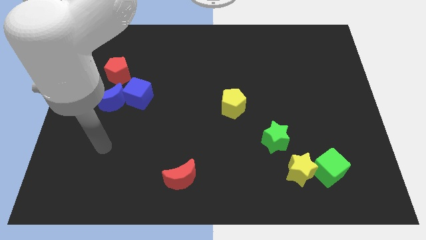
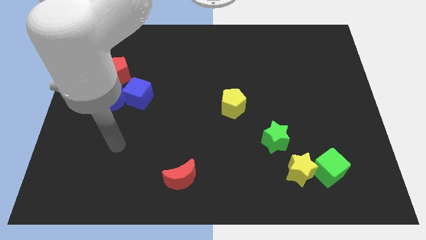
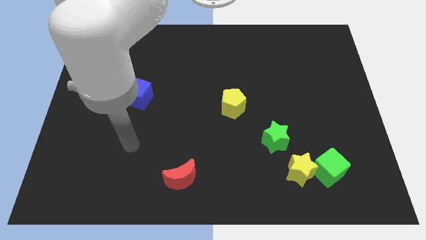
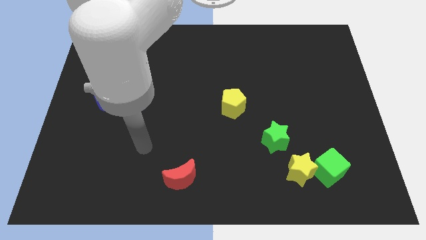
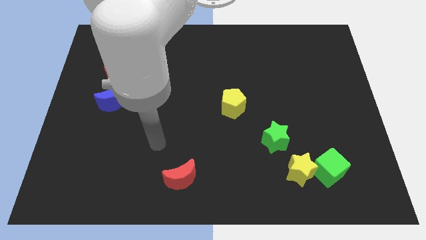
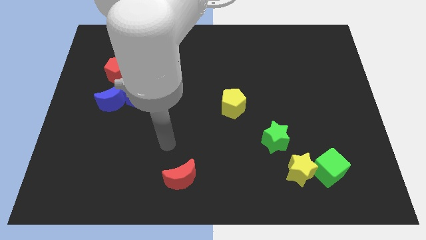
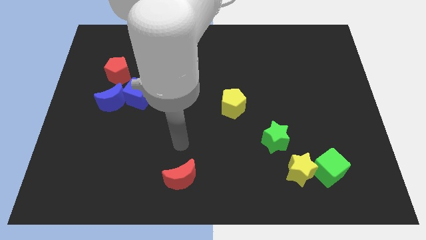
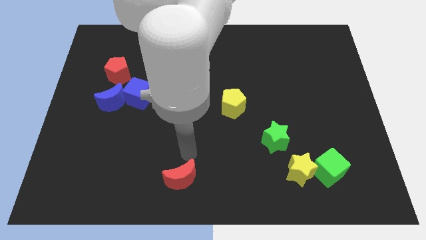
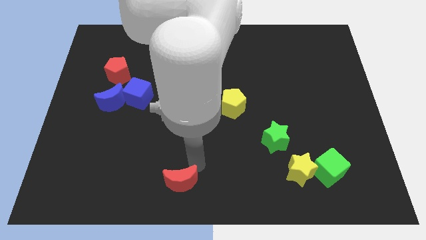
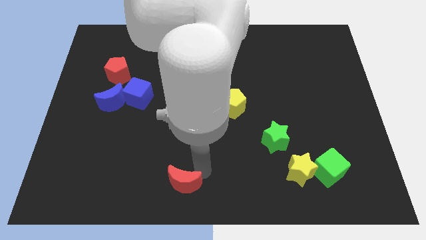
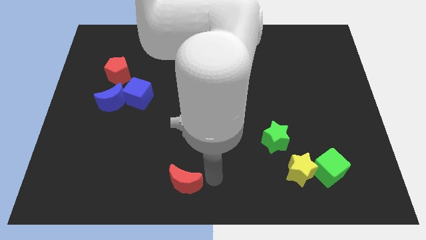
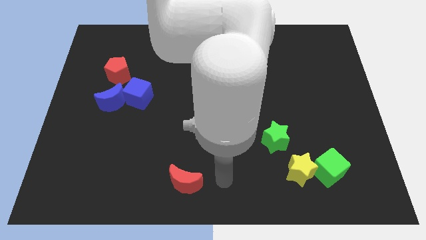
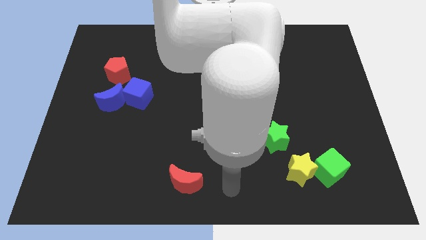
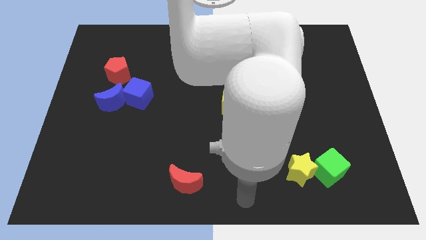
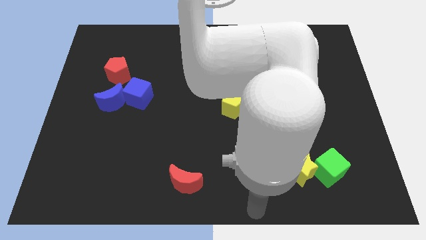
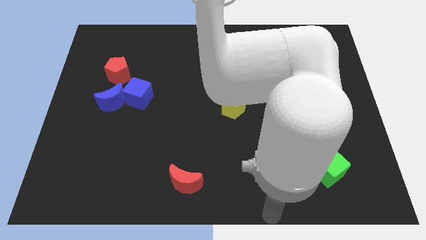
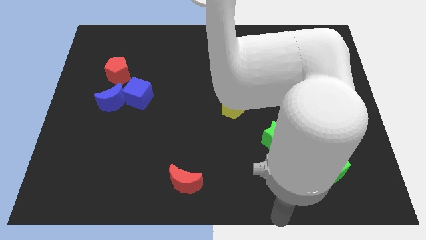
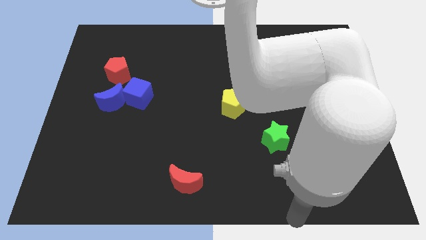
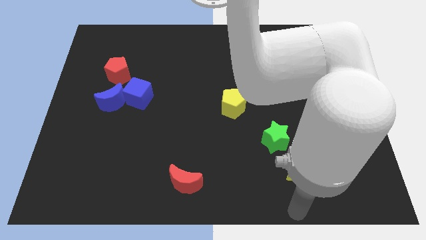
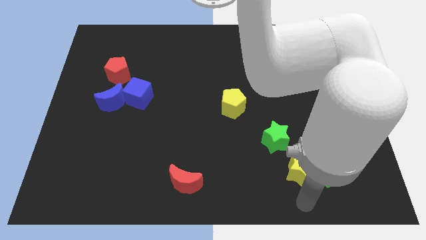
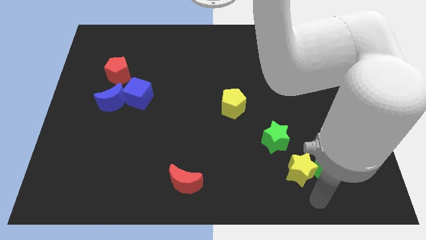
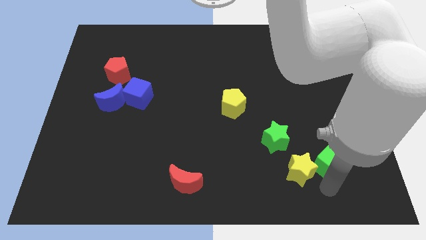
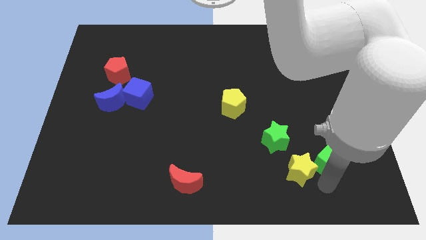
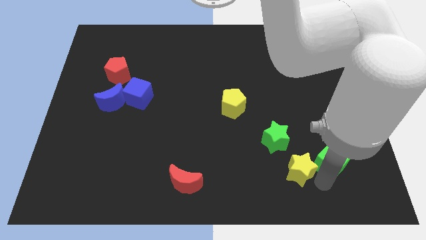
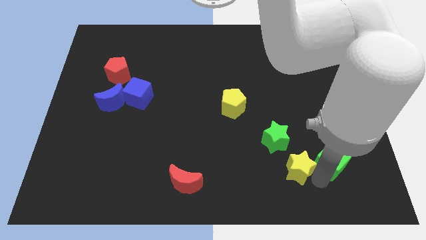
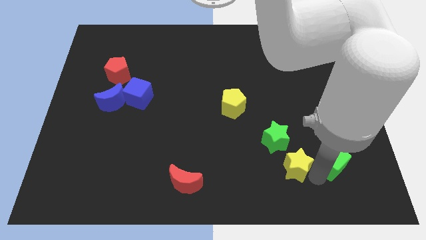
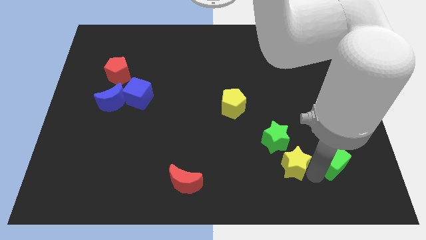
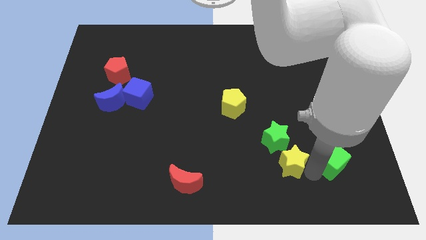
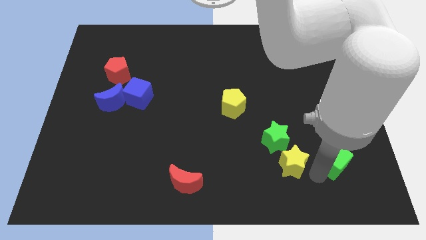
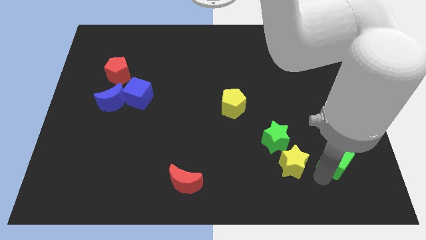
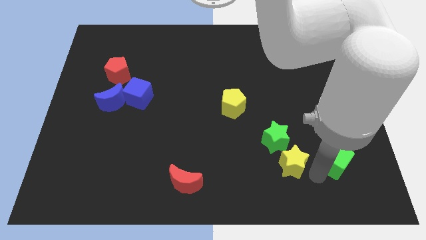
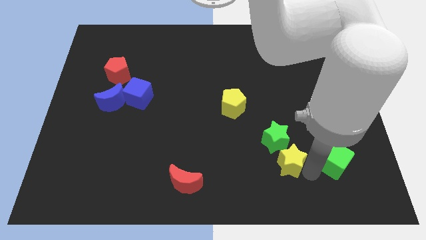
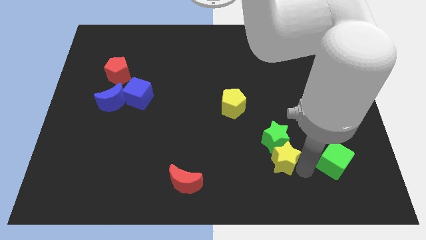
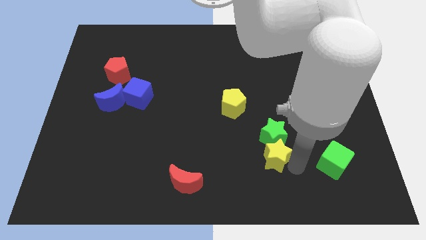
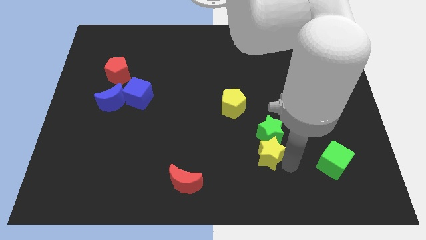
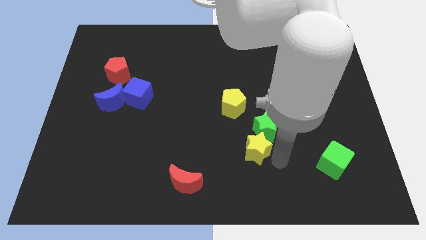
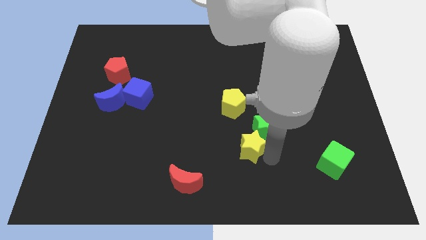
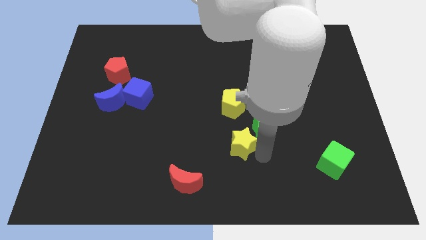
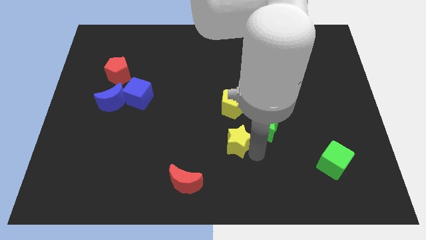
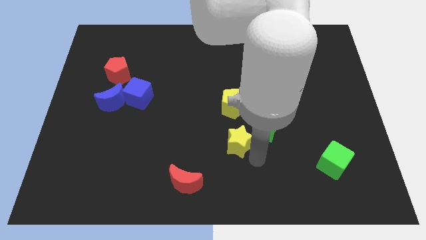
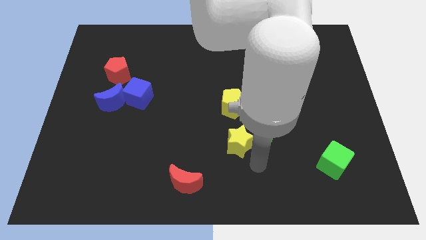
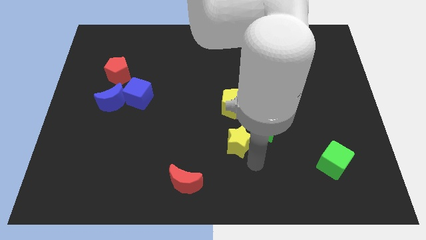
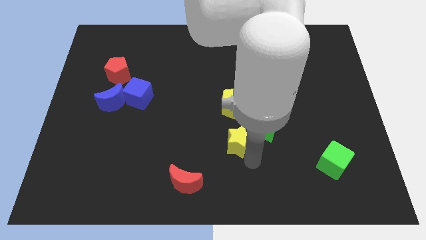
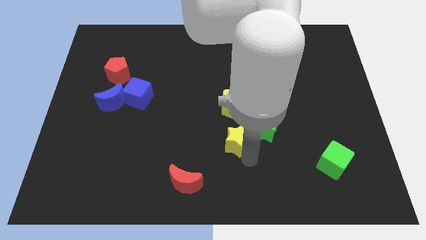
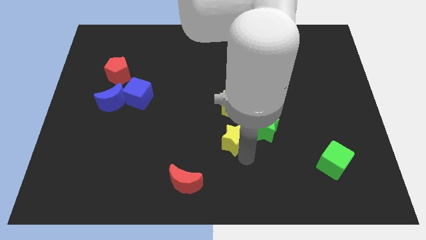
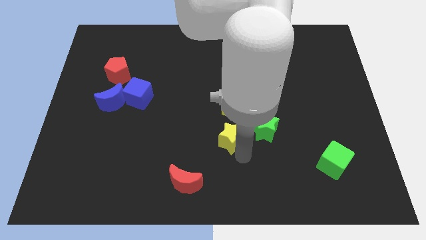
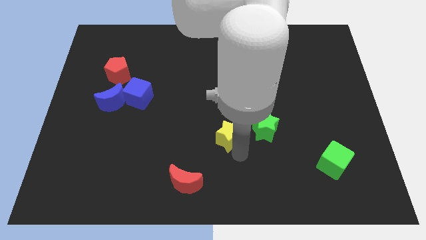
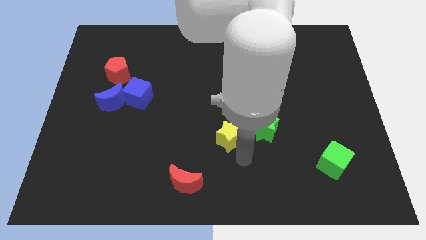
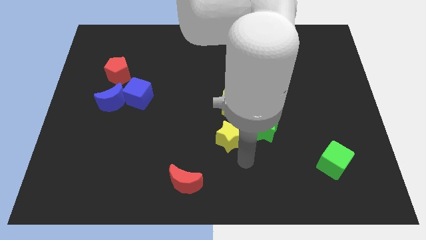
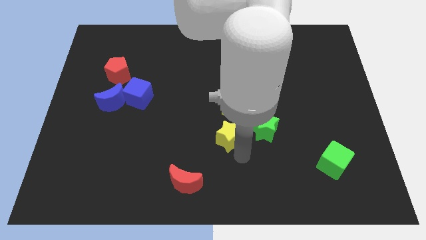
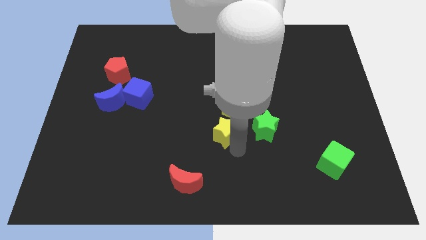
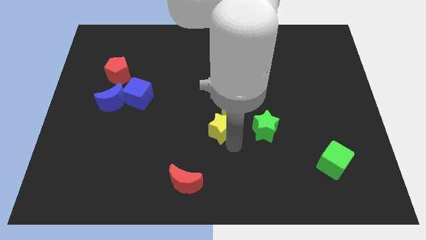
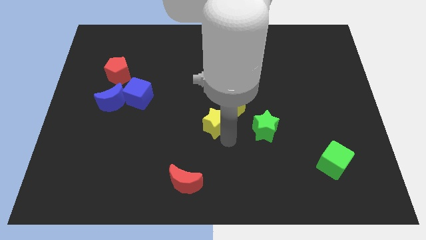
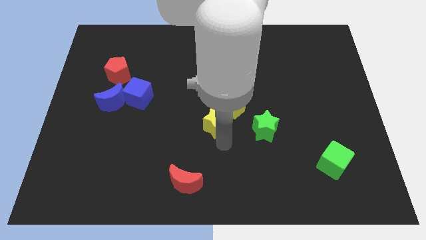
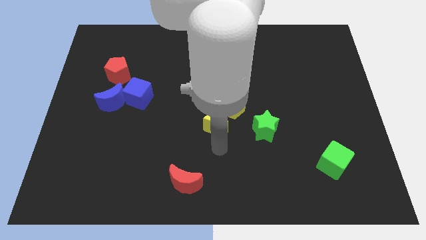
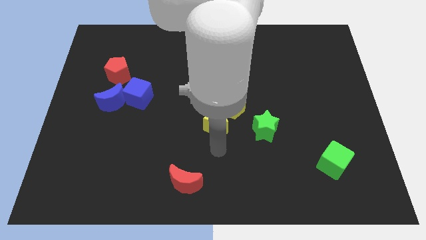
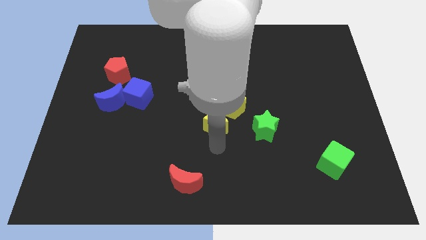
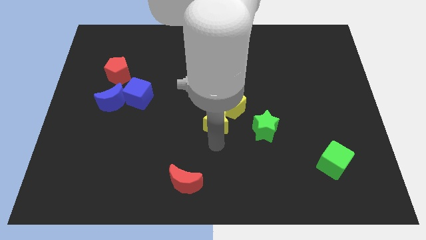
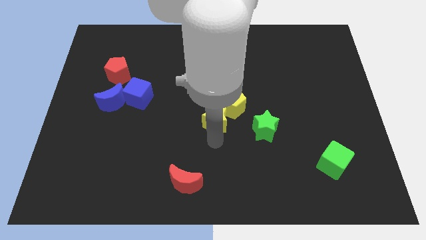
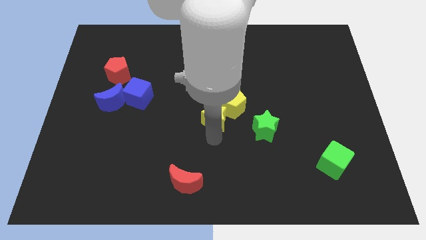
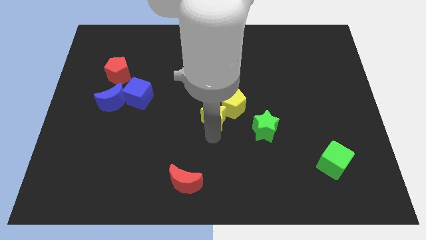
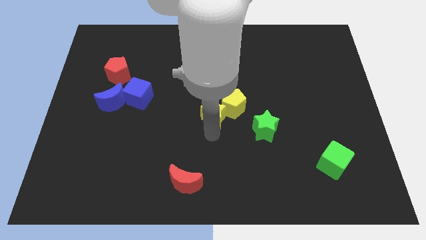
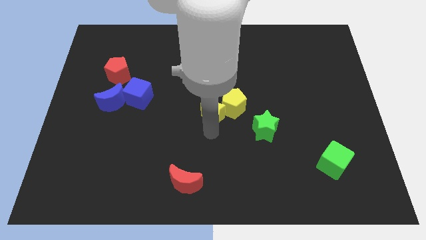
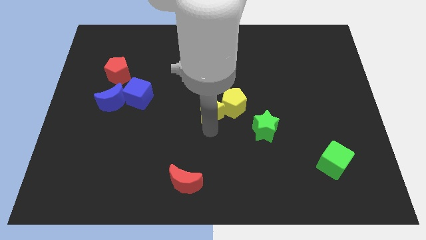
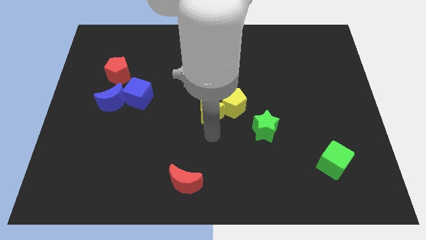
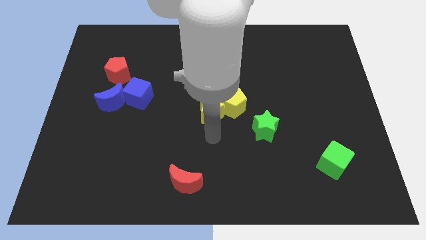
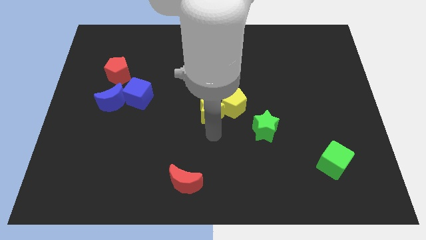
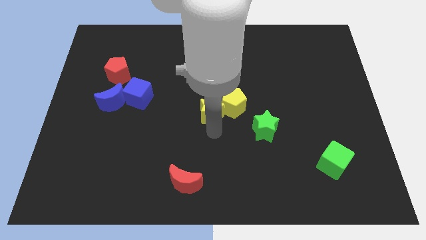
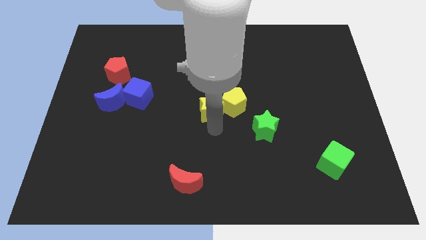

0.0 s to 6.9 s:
slide the yellow star diagonally up and to the left of the yellow pentagon
